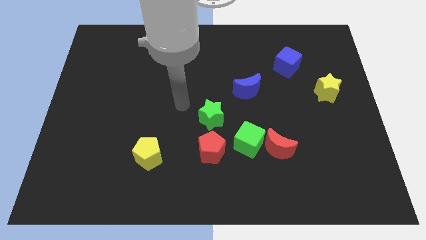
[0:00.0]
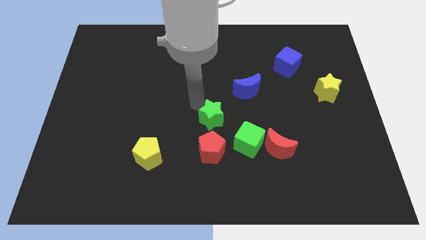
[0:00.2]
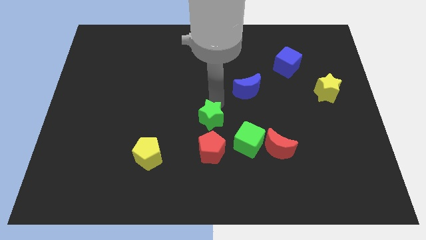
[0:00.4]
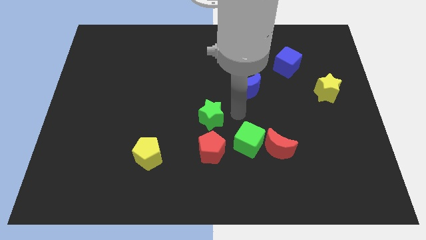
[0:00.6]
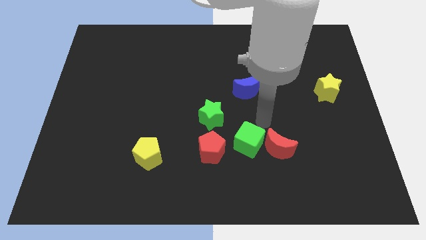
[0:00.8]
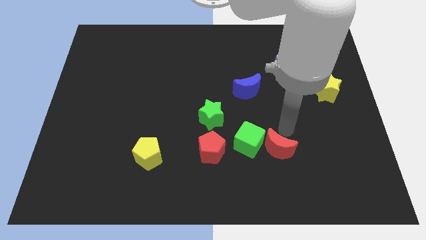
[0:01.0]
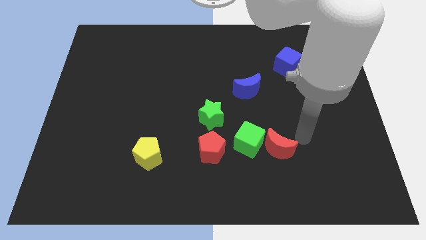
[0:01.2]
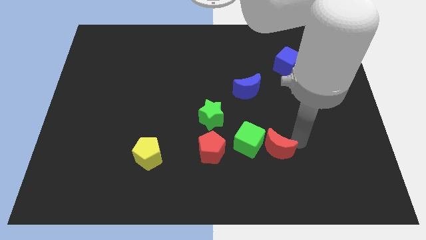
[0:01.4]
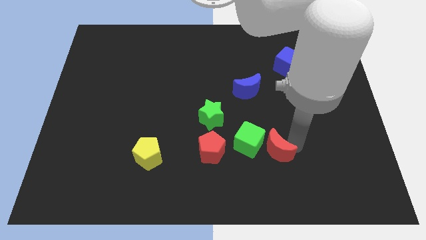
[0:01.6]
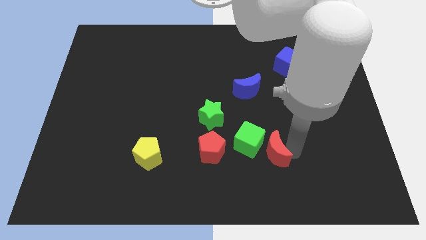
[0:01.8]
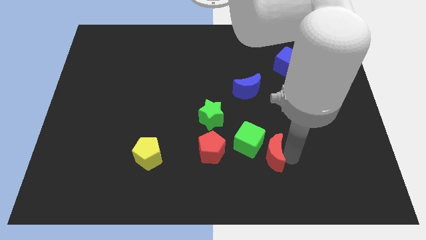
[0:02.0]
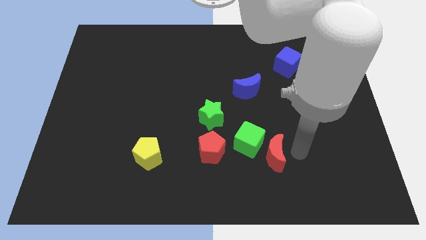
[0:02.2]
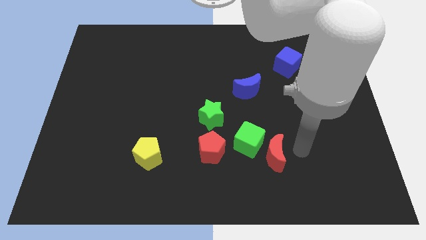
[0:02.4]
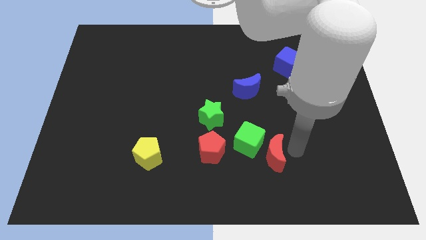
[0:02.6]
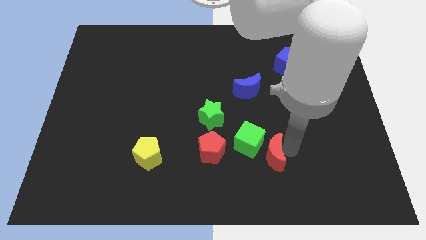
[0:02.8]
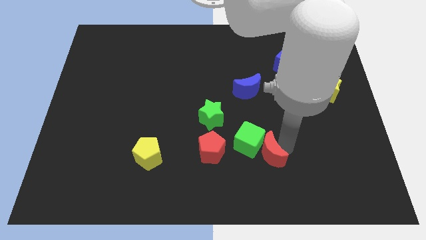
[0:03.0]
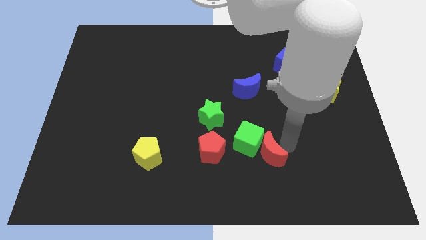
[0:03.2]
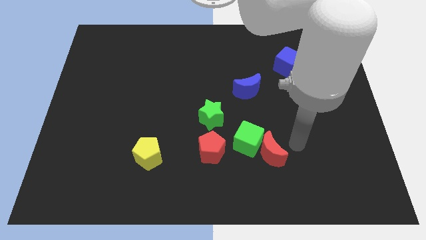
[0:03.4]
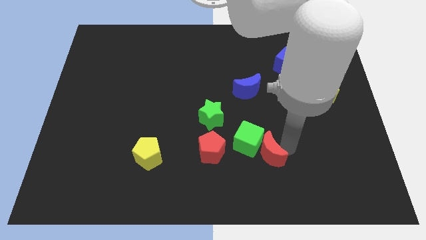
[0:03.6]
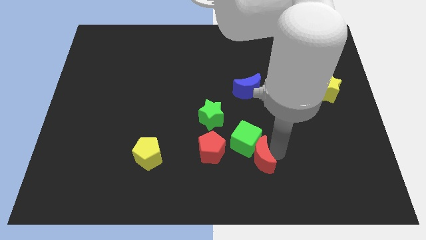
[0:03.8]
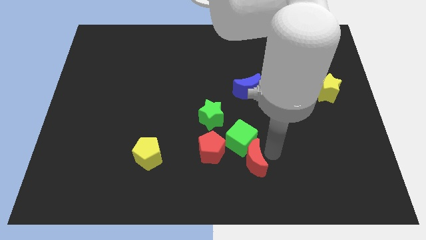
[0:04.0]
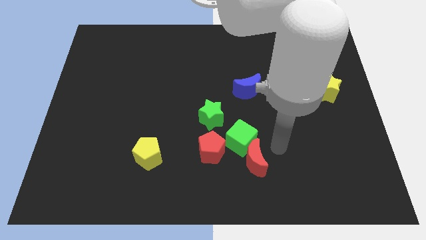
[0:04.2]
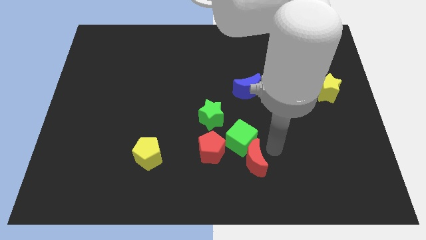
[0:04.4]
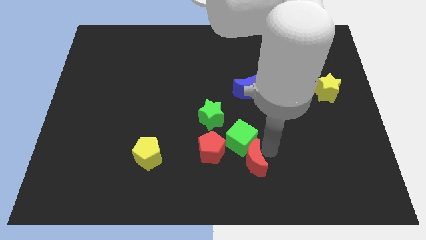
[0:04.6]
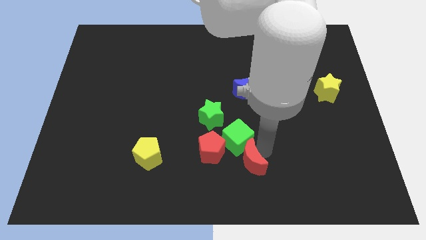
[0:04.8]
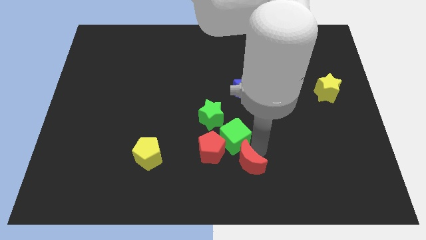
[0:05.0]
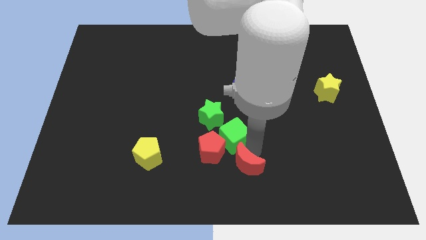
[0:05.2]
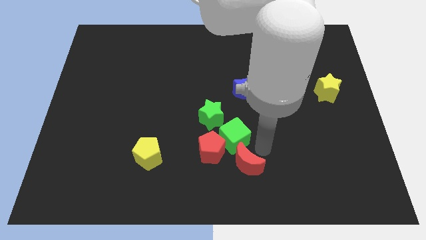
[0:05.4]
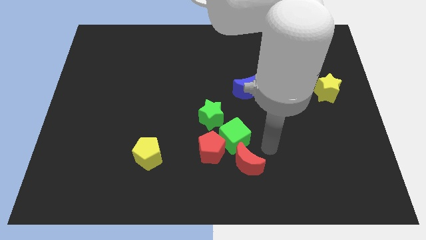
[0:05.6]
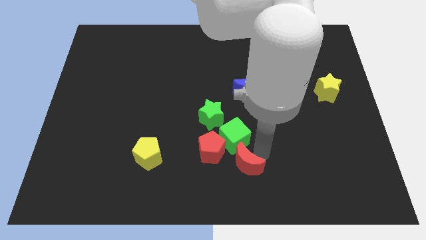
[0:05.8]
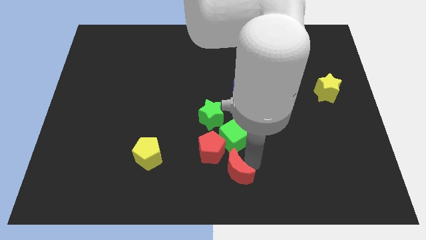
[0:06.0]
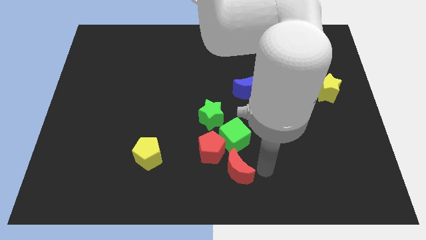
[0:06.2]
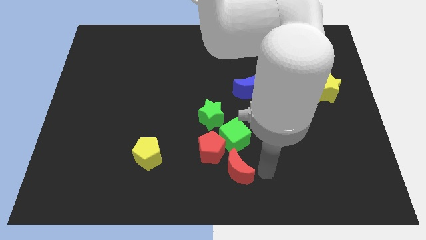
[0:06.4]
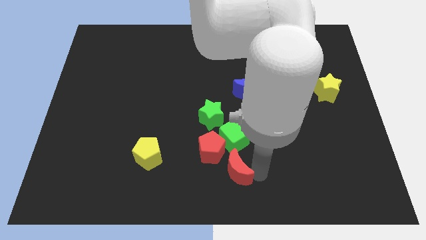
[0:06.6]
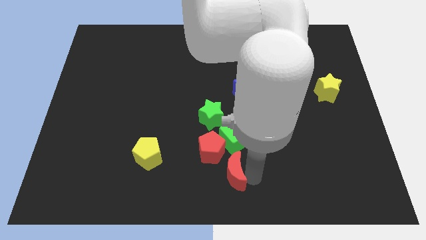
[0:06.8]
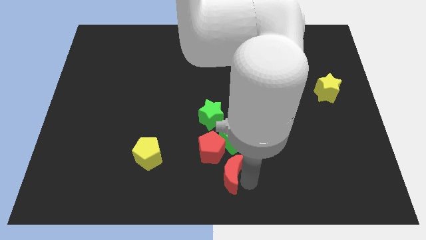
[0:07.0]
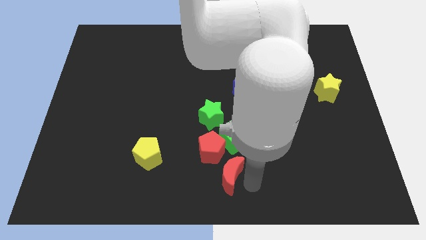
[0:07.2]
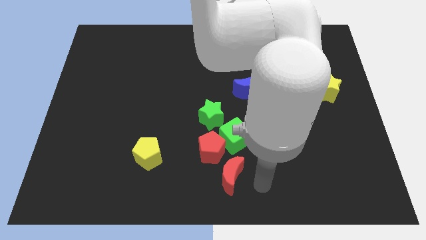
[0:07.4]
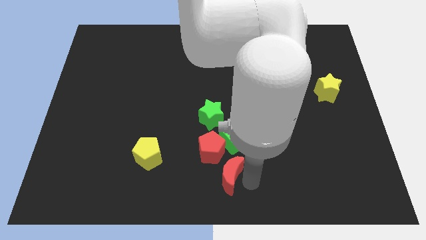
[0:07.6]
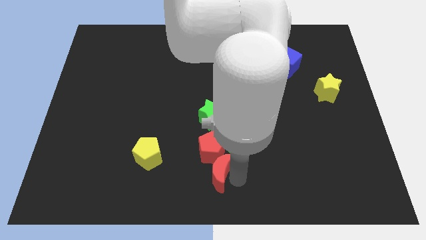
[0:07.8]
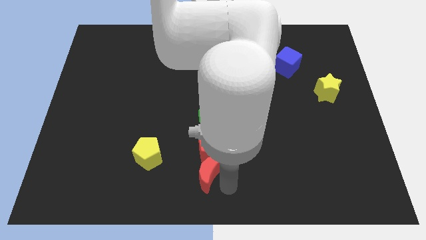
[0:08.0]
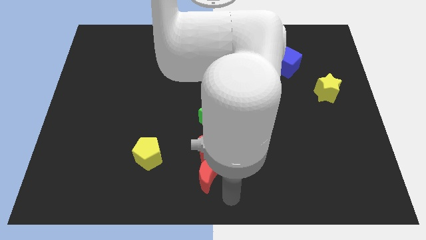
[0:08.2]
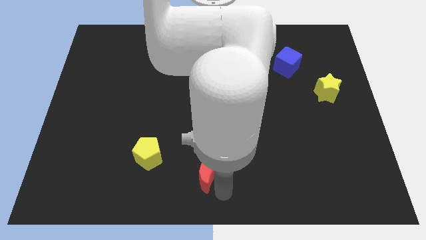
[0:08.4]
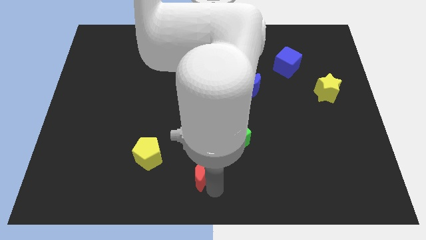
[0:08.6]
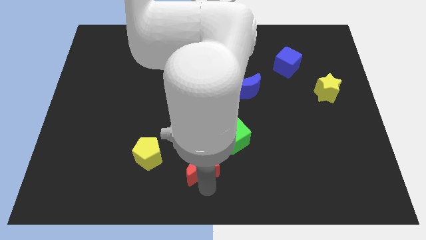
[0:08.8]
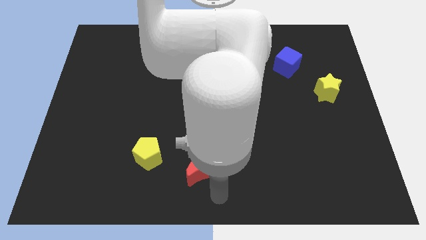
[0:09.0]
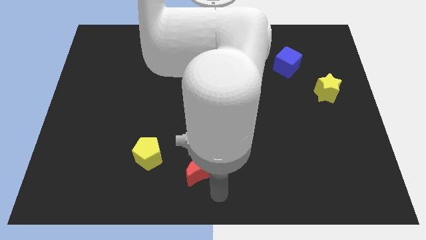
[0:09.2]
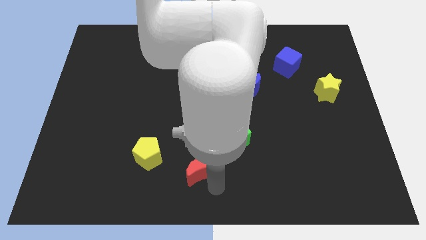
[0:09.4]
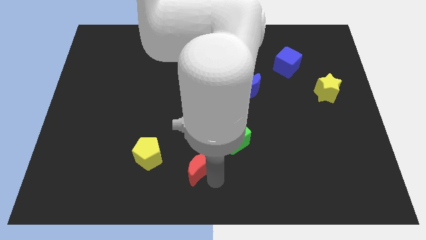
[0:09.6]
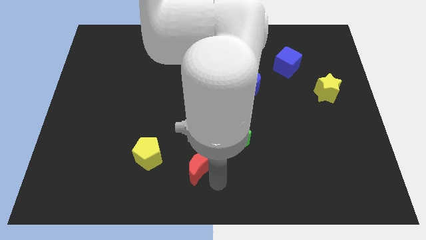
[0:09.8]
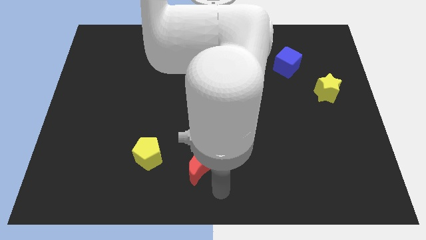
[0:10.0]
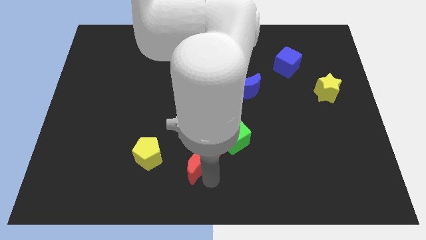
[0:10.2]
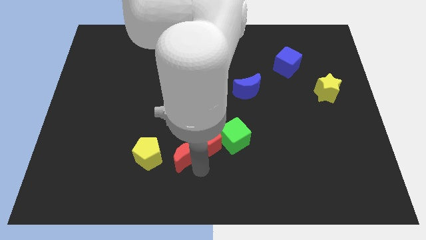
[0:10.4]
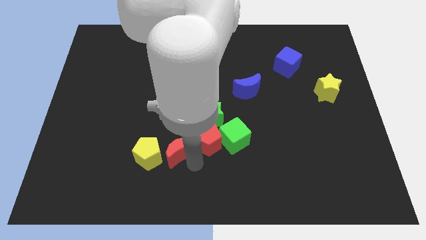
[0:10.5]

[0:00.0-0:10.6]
move the red moon to the left

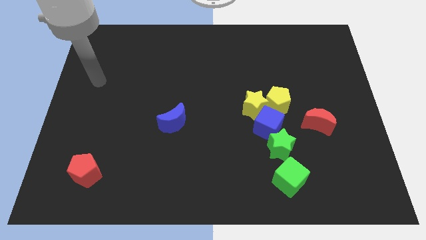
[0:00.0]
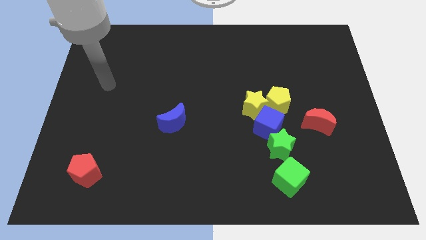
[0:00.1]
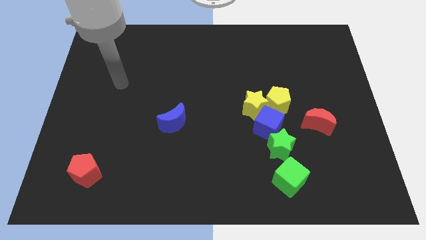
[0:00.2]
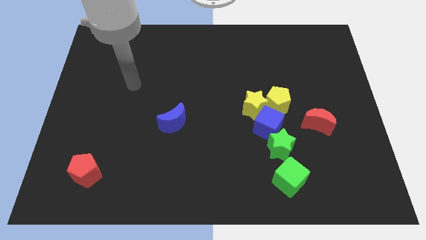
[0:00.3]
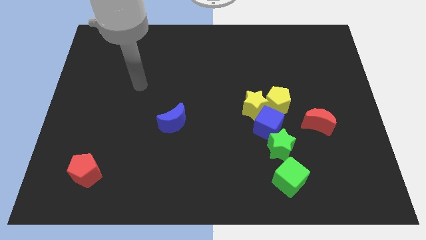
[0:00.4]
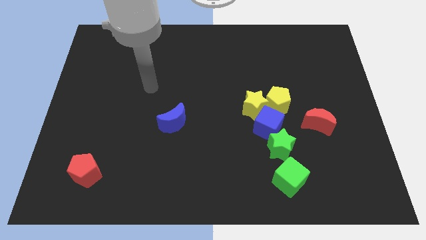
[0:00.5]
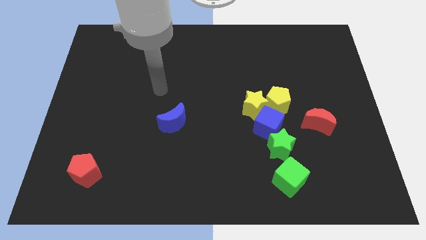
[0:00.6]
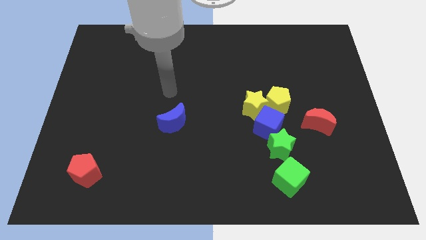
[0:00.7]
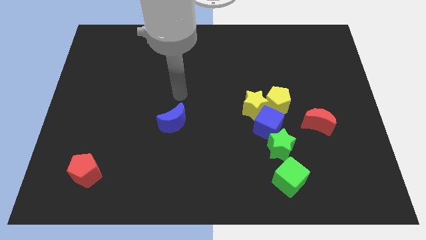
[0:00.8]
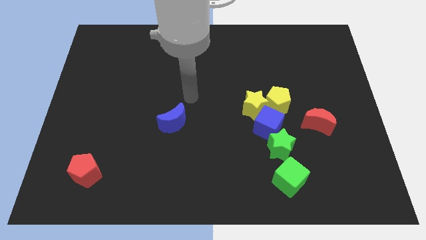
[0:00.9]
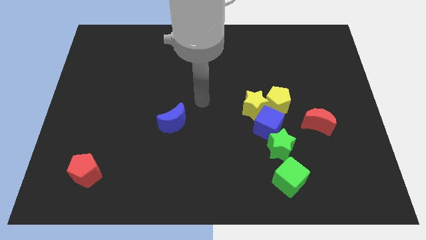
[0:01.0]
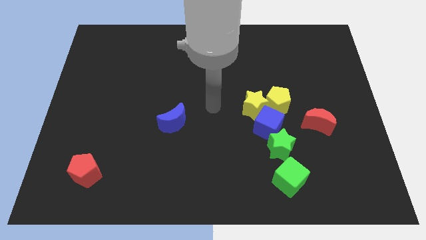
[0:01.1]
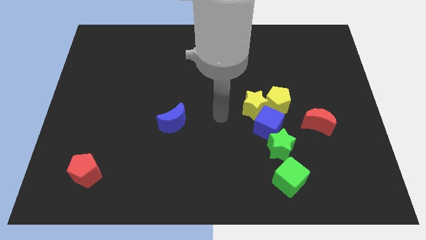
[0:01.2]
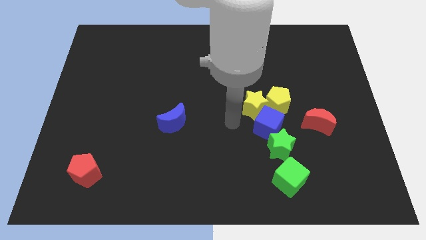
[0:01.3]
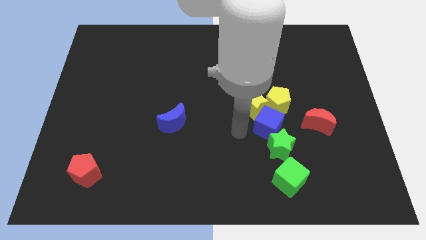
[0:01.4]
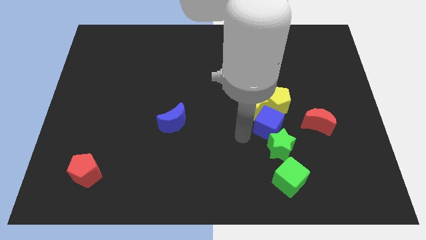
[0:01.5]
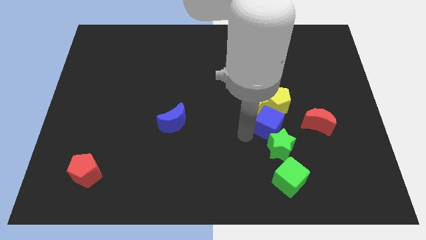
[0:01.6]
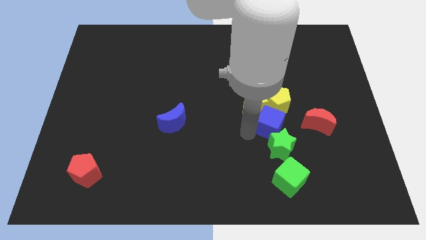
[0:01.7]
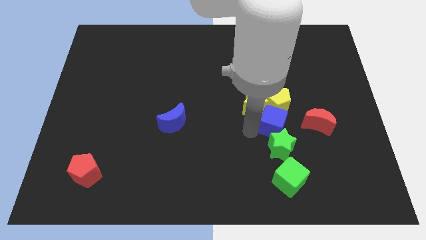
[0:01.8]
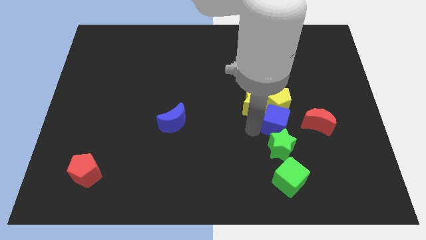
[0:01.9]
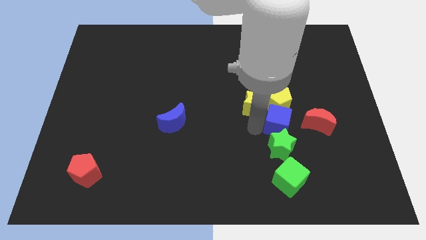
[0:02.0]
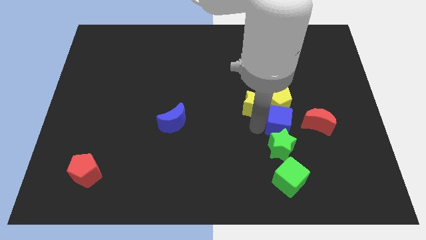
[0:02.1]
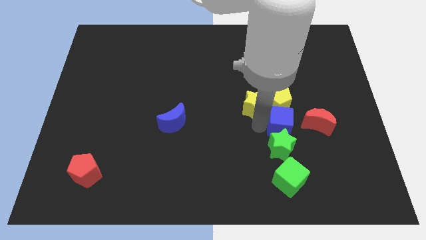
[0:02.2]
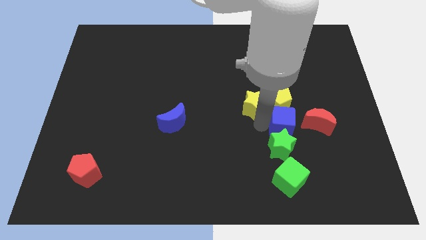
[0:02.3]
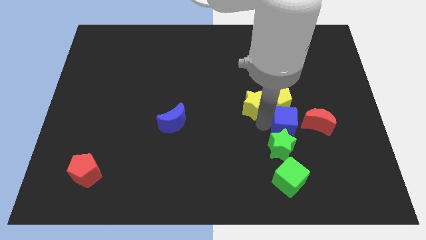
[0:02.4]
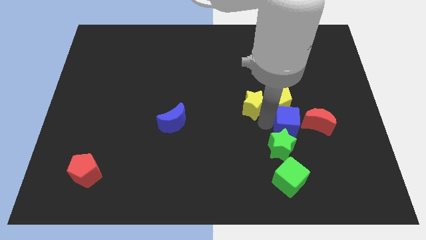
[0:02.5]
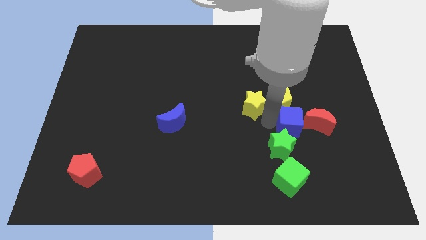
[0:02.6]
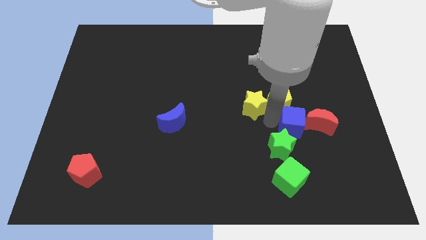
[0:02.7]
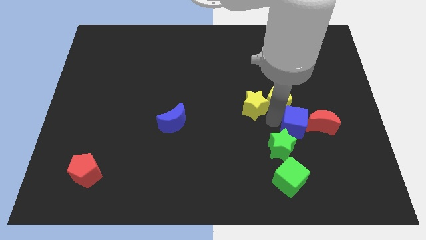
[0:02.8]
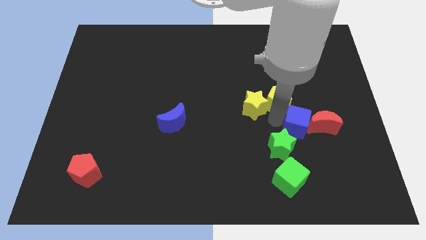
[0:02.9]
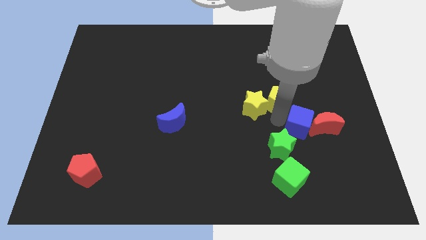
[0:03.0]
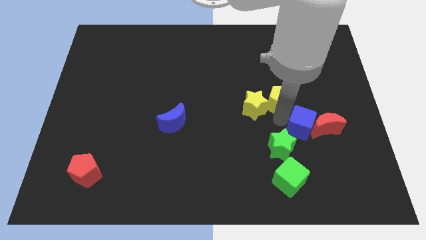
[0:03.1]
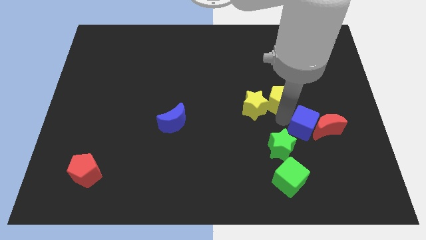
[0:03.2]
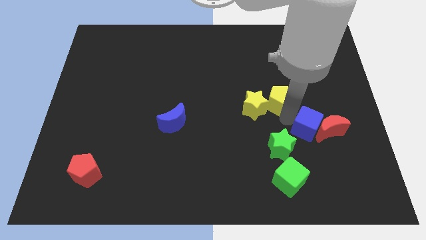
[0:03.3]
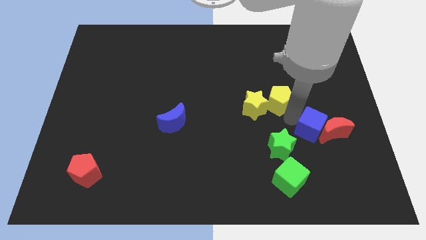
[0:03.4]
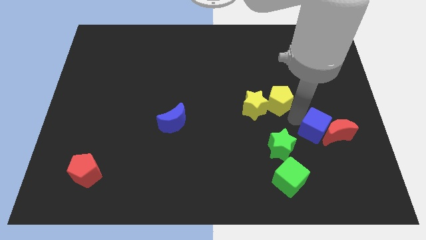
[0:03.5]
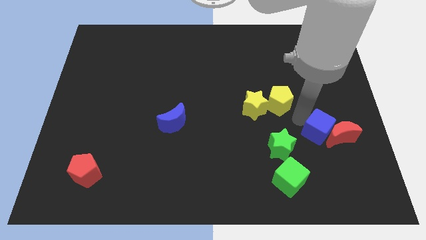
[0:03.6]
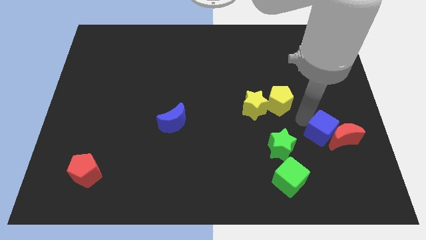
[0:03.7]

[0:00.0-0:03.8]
slightly push the blue cube downwards and to the right
